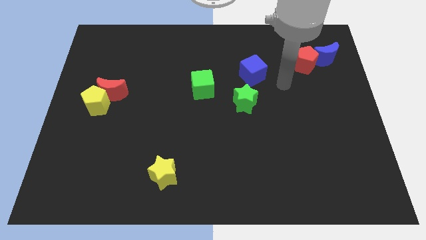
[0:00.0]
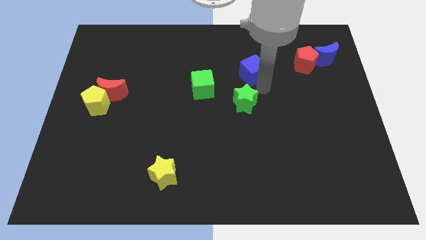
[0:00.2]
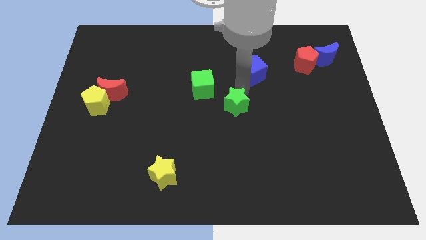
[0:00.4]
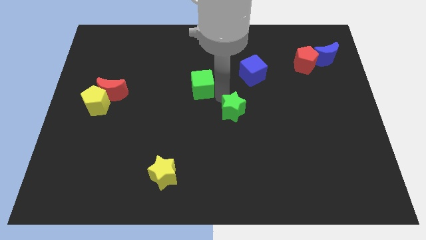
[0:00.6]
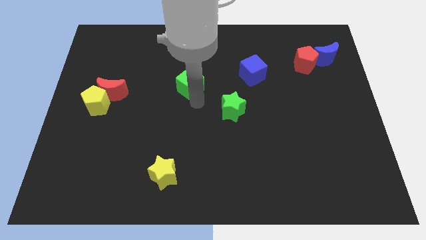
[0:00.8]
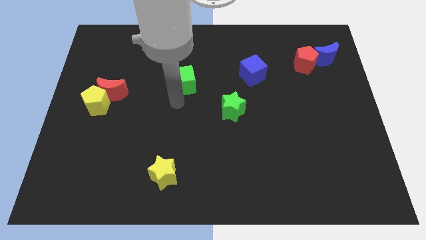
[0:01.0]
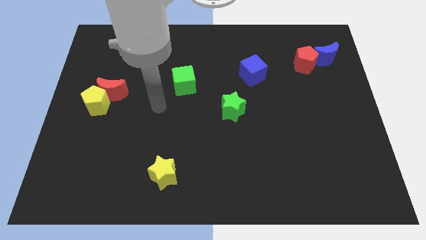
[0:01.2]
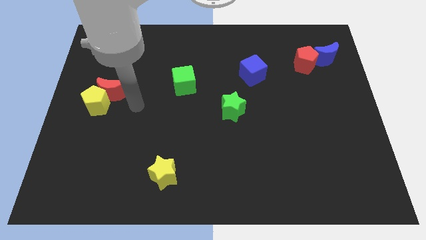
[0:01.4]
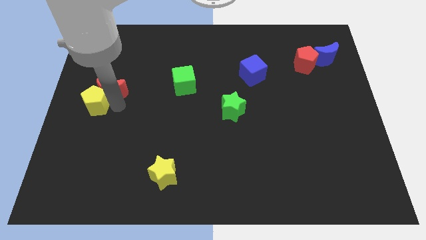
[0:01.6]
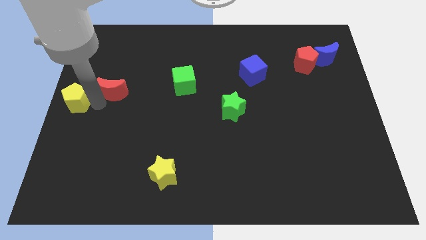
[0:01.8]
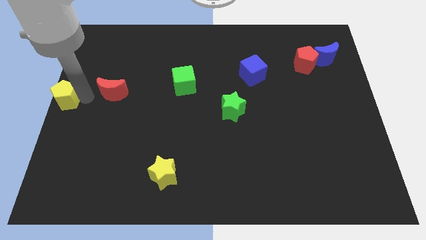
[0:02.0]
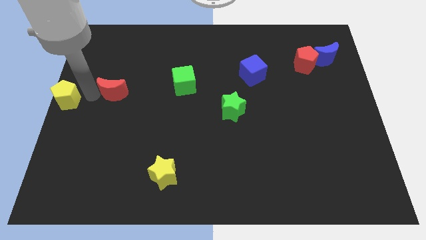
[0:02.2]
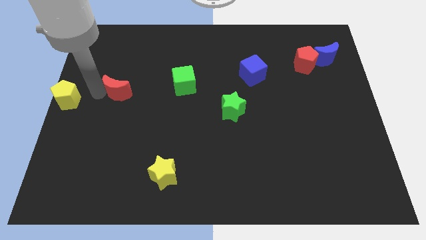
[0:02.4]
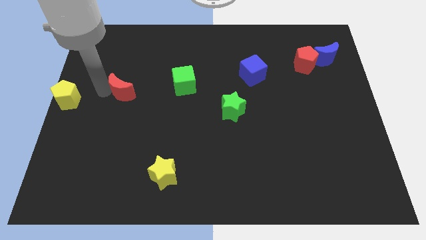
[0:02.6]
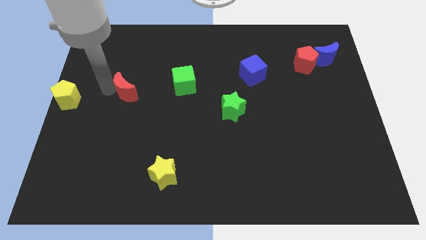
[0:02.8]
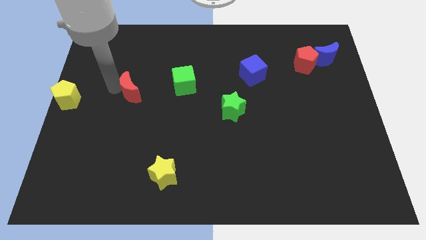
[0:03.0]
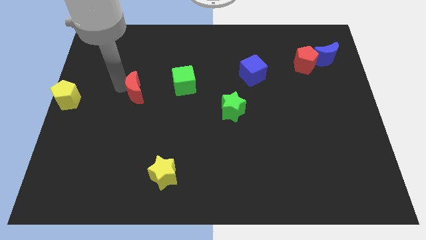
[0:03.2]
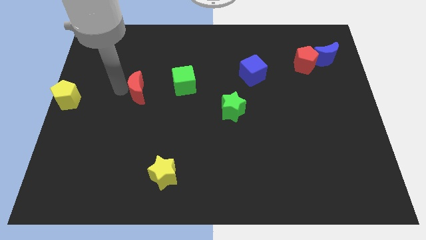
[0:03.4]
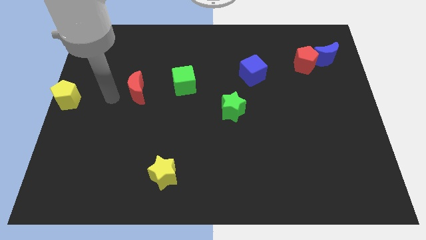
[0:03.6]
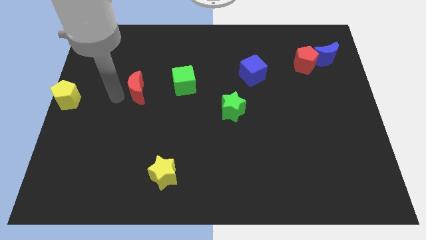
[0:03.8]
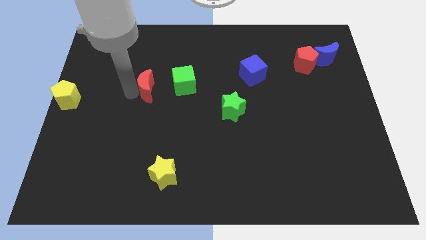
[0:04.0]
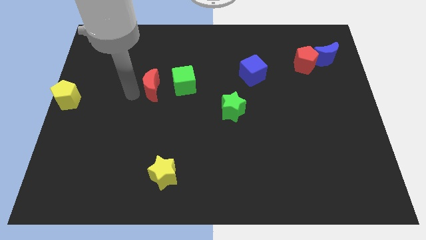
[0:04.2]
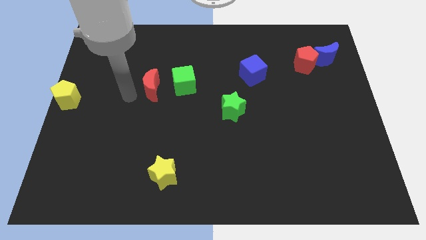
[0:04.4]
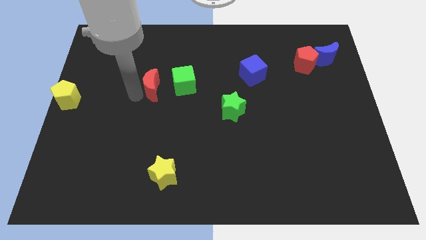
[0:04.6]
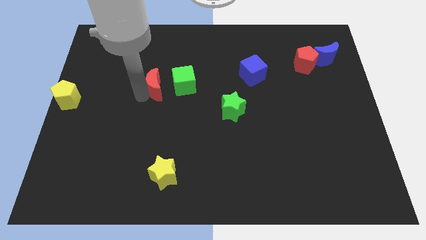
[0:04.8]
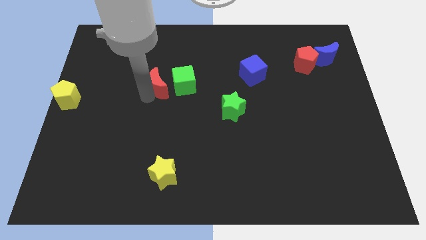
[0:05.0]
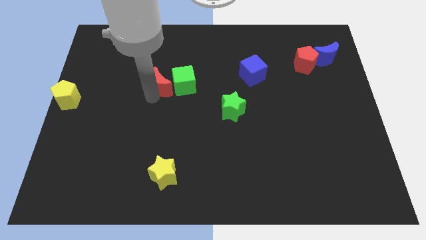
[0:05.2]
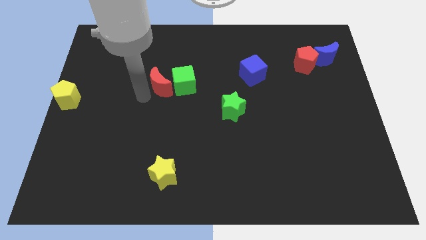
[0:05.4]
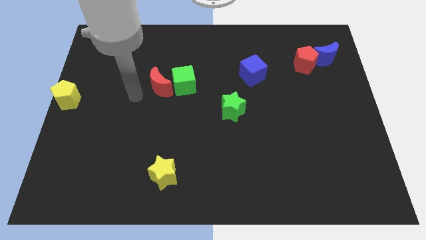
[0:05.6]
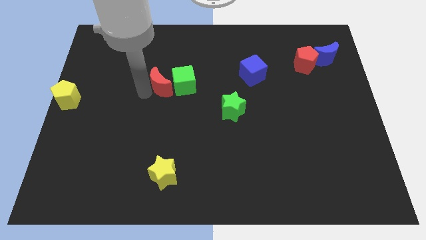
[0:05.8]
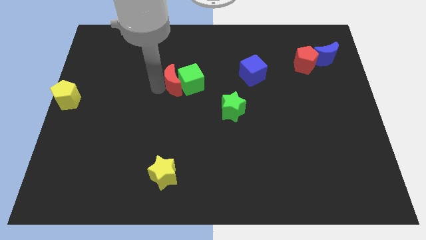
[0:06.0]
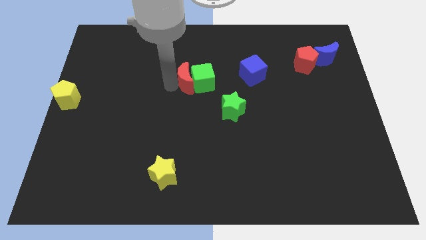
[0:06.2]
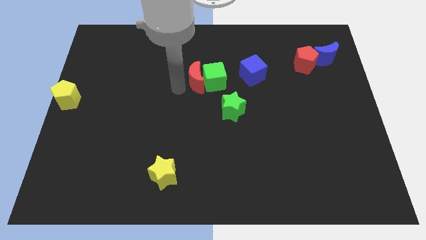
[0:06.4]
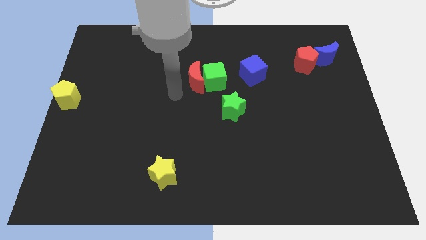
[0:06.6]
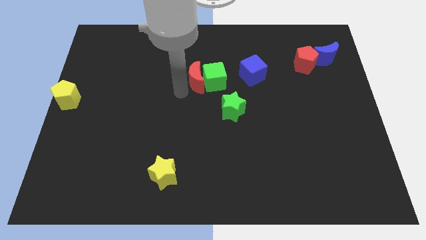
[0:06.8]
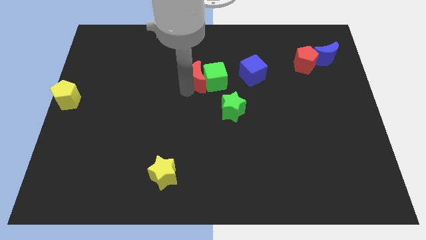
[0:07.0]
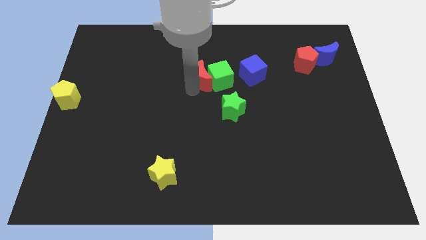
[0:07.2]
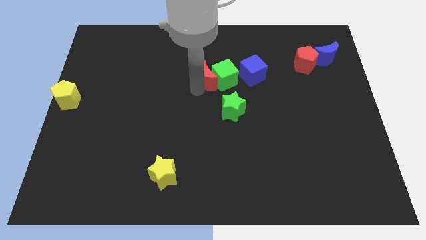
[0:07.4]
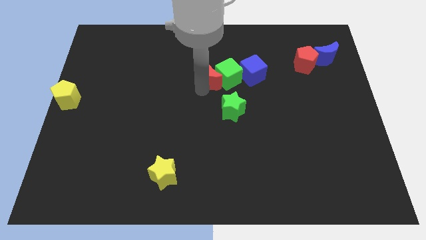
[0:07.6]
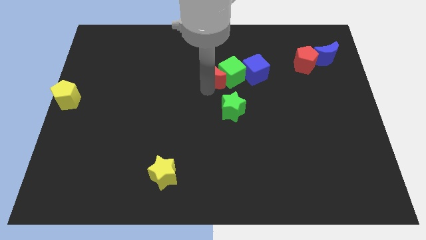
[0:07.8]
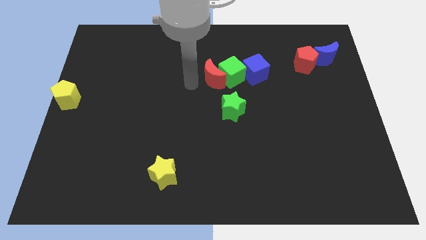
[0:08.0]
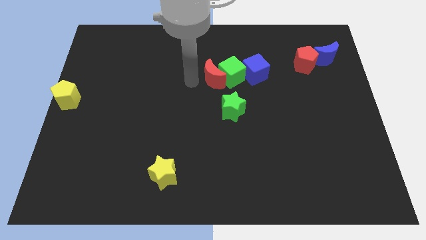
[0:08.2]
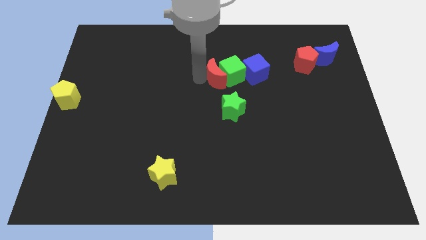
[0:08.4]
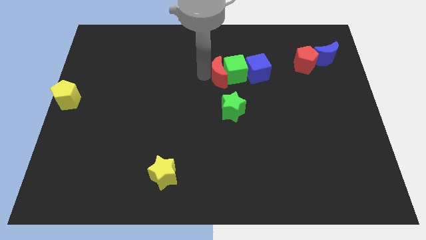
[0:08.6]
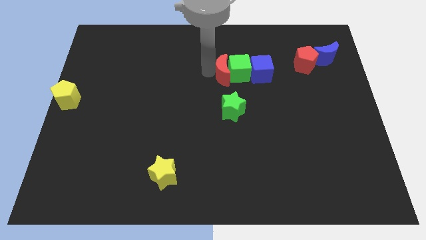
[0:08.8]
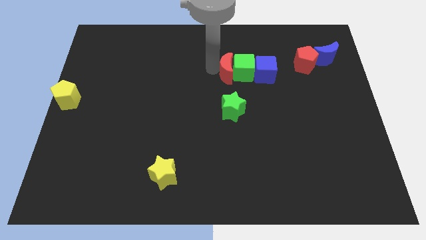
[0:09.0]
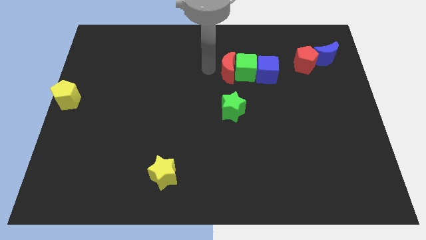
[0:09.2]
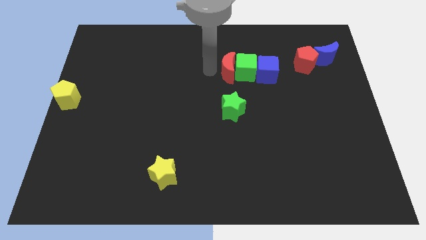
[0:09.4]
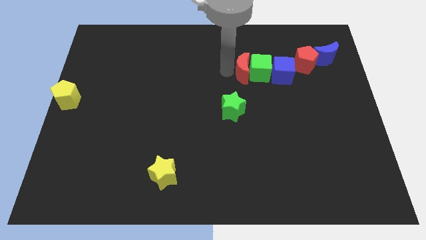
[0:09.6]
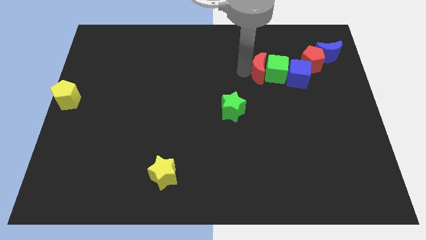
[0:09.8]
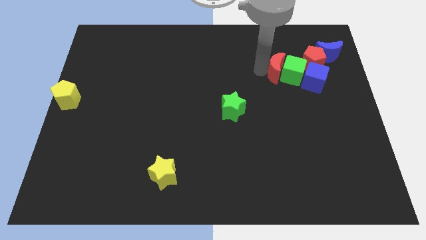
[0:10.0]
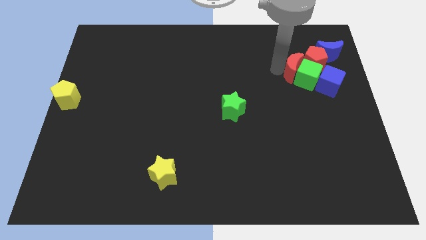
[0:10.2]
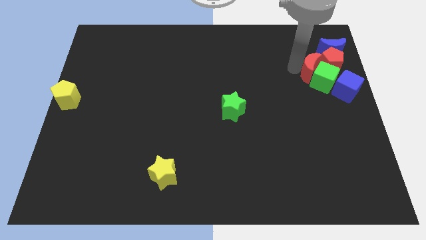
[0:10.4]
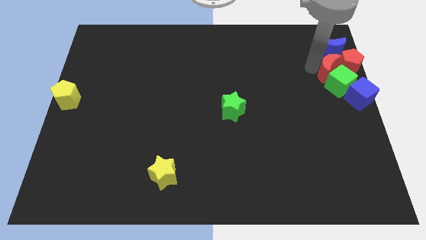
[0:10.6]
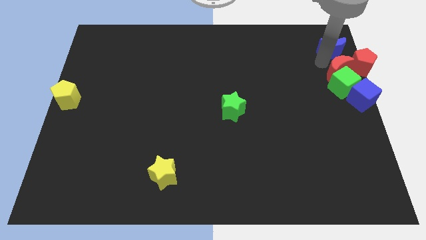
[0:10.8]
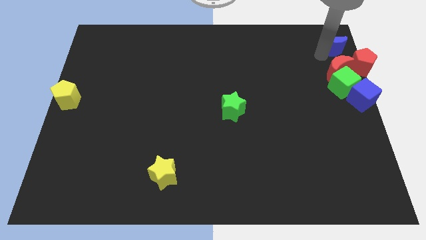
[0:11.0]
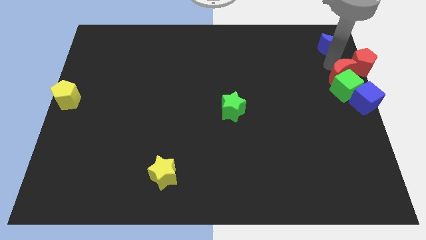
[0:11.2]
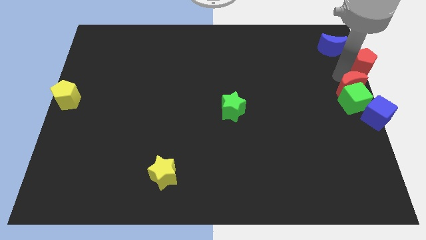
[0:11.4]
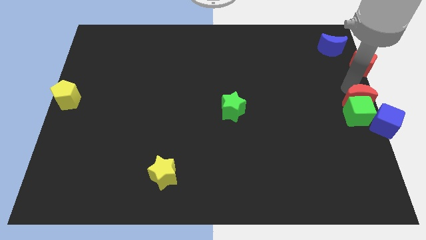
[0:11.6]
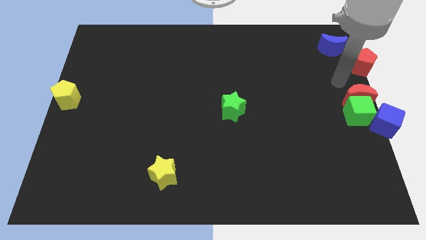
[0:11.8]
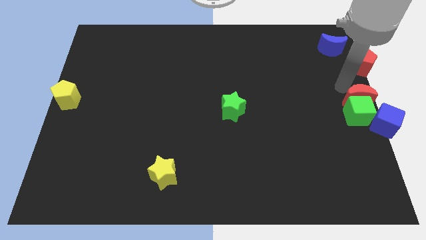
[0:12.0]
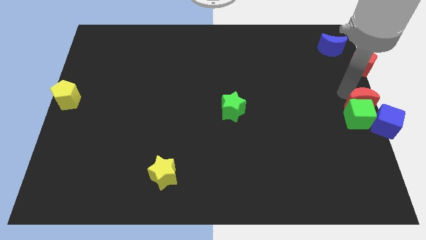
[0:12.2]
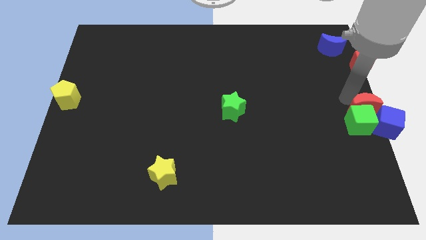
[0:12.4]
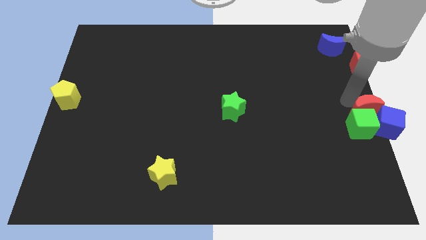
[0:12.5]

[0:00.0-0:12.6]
push the red moon next to the blue cube
